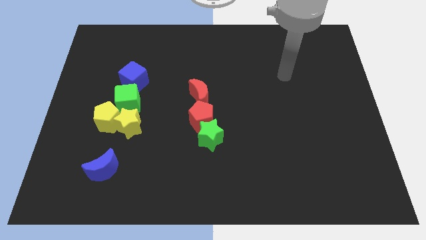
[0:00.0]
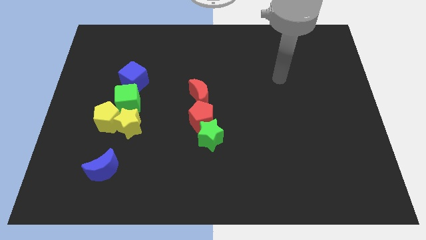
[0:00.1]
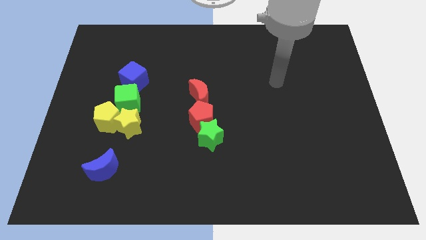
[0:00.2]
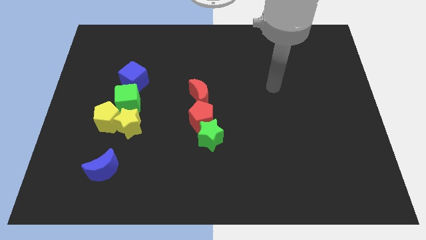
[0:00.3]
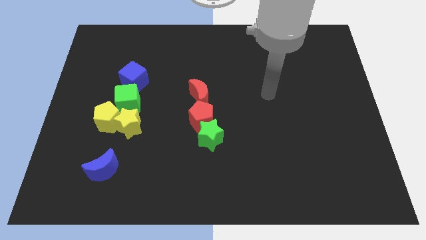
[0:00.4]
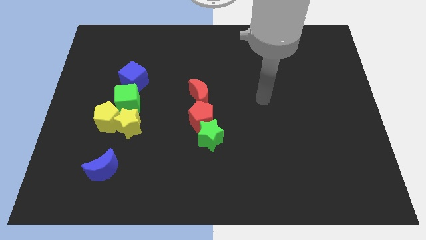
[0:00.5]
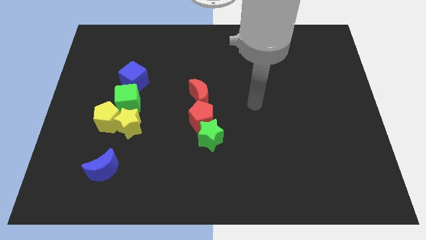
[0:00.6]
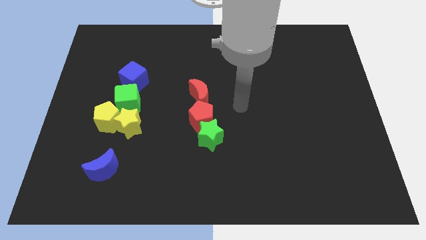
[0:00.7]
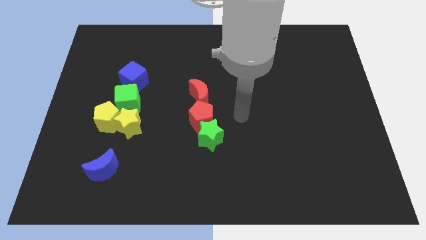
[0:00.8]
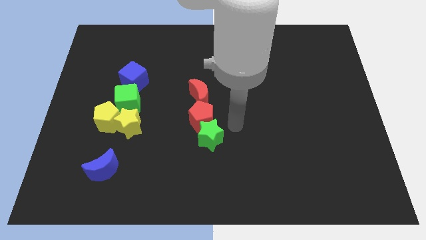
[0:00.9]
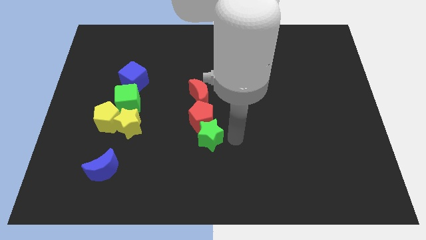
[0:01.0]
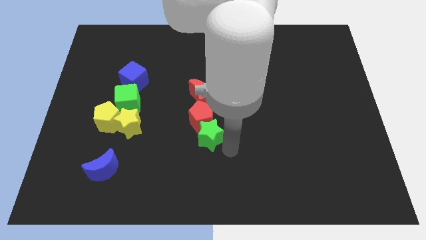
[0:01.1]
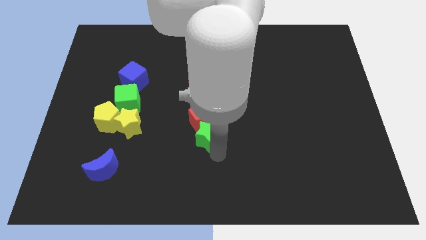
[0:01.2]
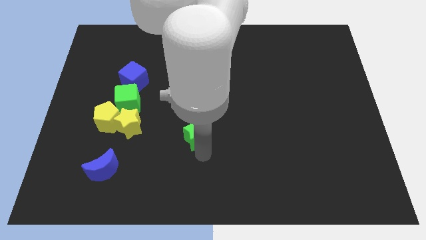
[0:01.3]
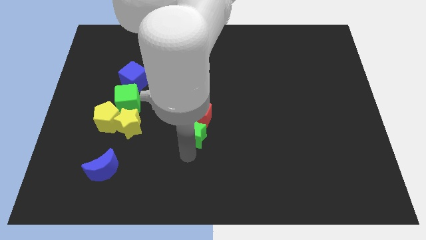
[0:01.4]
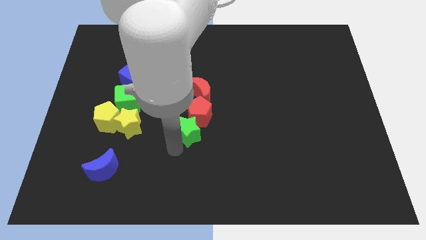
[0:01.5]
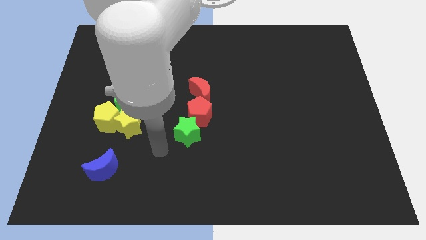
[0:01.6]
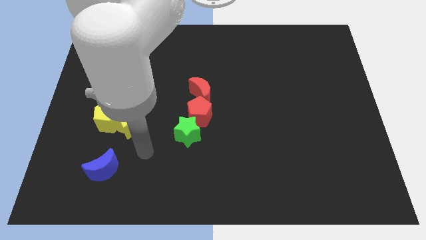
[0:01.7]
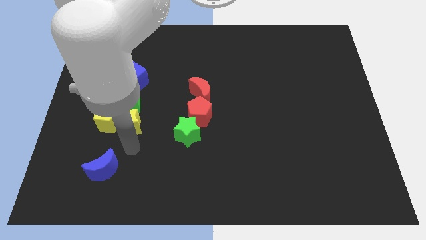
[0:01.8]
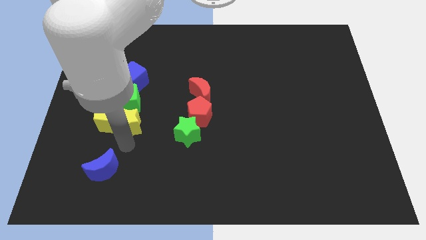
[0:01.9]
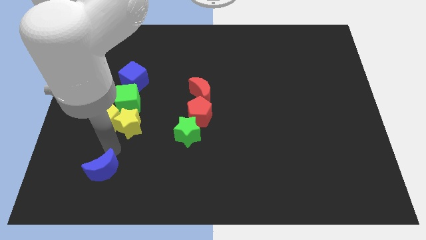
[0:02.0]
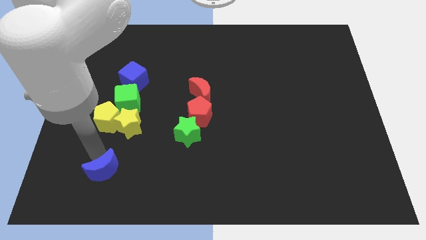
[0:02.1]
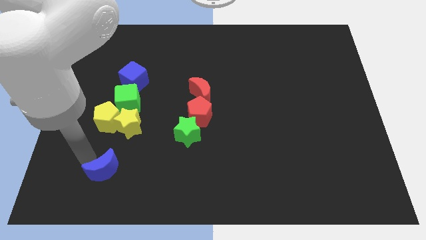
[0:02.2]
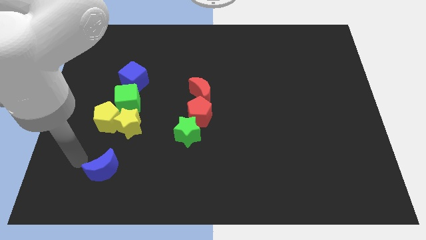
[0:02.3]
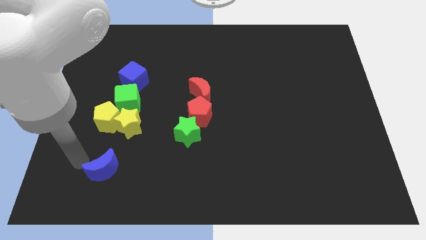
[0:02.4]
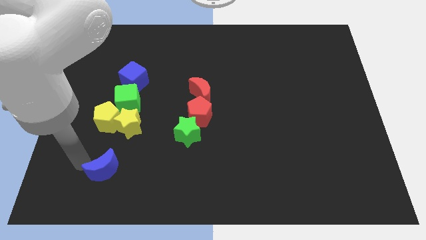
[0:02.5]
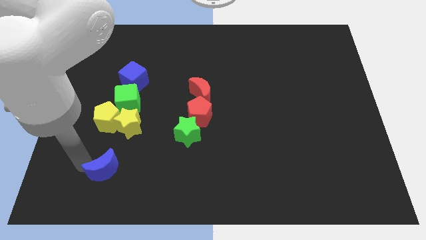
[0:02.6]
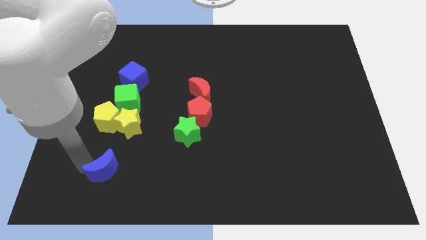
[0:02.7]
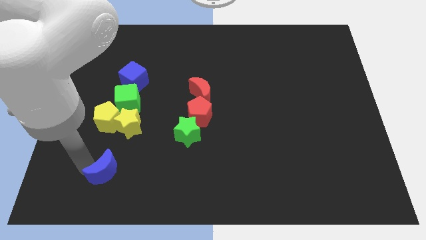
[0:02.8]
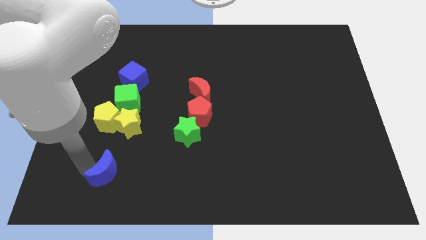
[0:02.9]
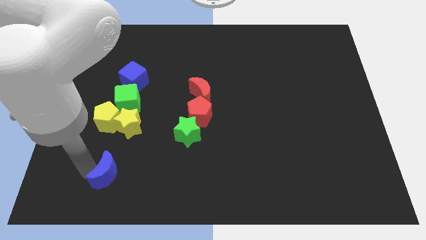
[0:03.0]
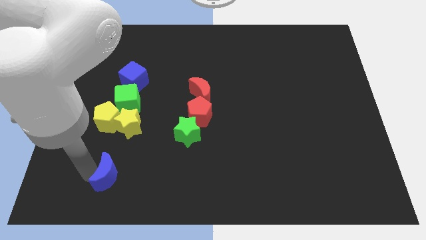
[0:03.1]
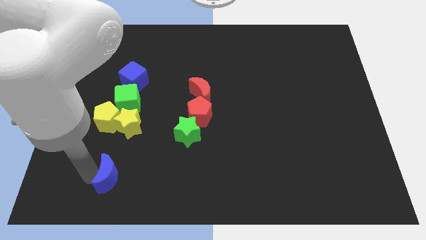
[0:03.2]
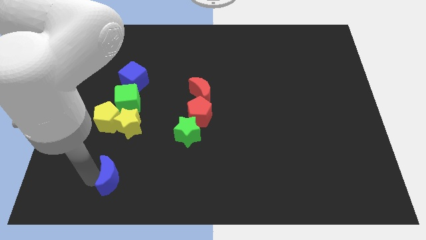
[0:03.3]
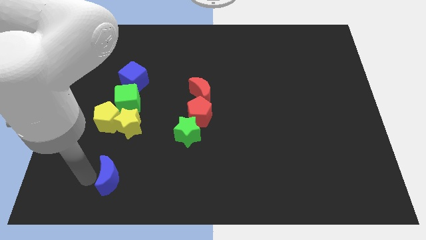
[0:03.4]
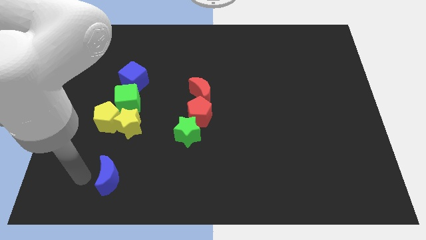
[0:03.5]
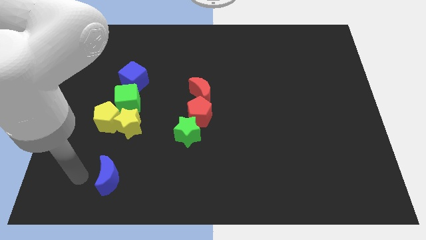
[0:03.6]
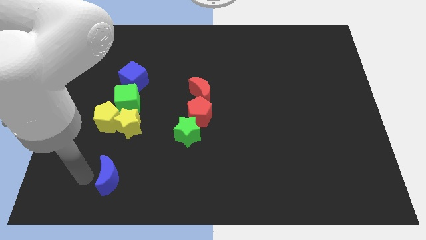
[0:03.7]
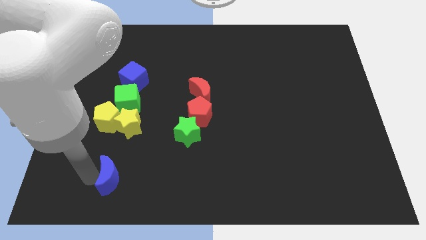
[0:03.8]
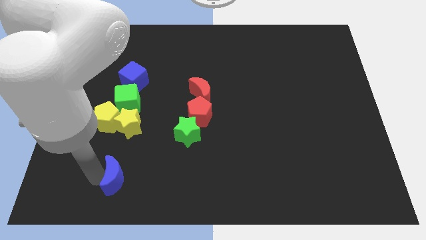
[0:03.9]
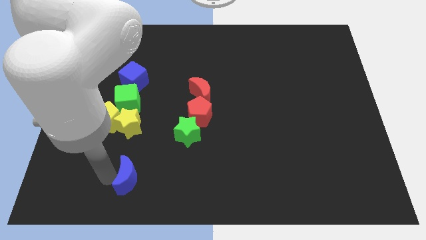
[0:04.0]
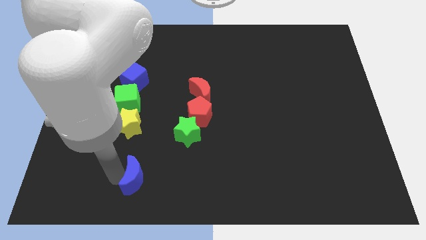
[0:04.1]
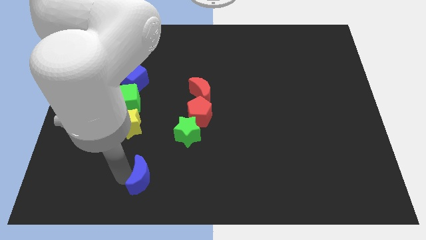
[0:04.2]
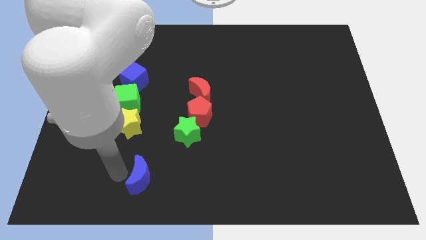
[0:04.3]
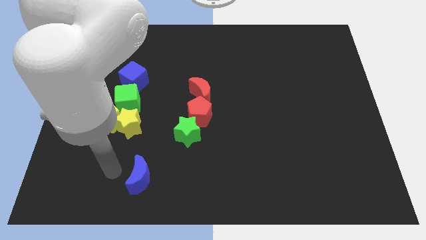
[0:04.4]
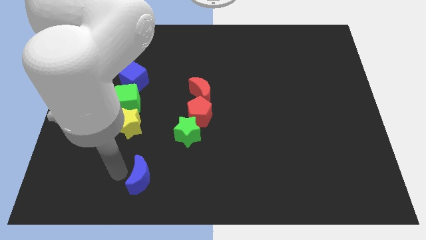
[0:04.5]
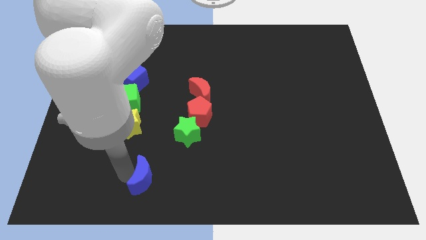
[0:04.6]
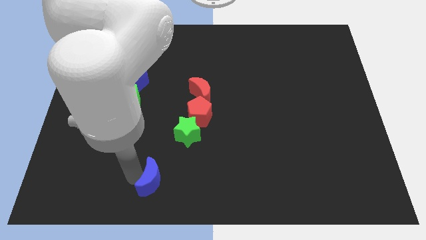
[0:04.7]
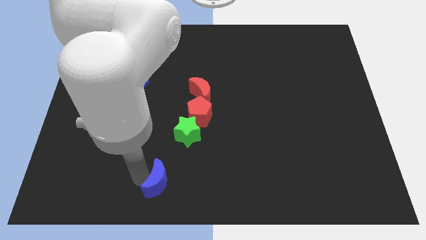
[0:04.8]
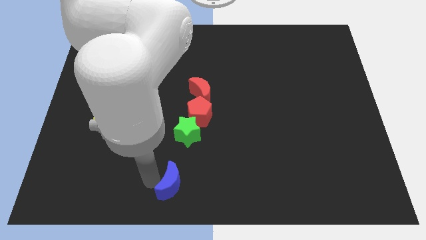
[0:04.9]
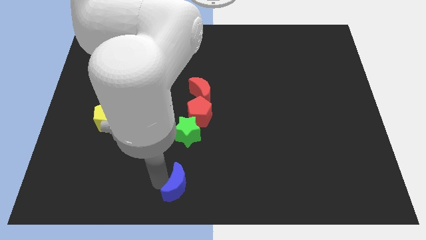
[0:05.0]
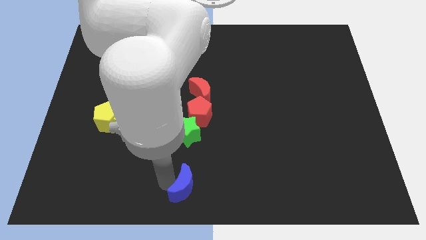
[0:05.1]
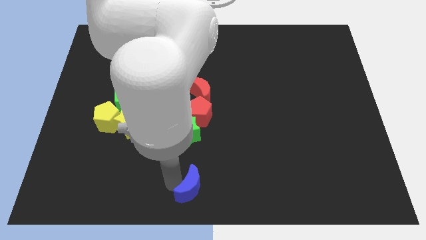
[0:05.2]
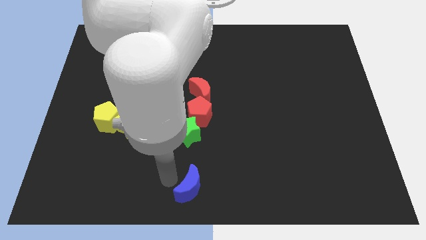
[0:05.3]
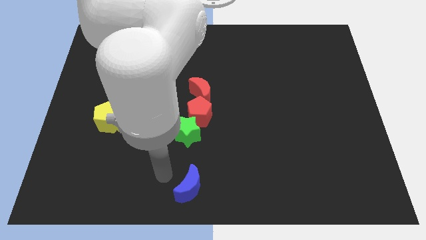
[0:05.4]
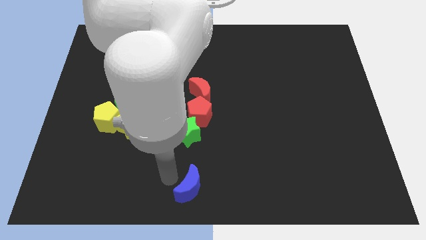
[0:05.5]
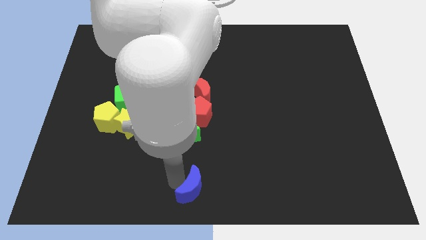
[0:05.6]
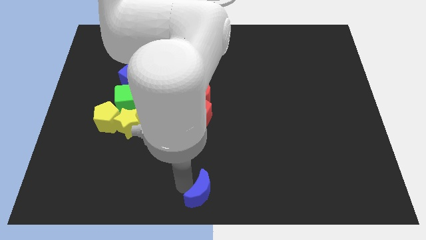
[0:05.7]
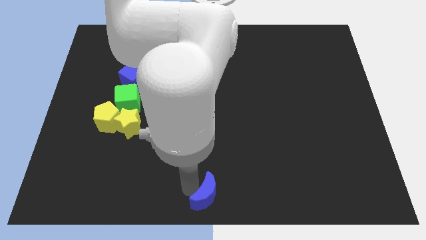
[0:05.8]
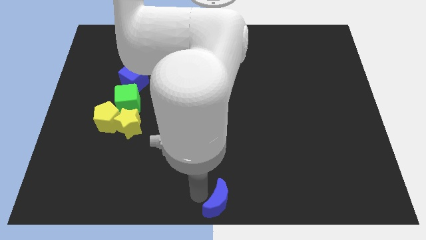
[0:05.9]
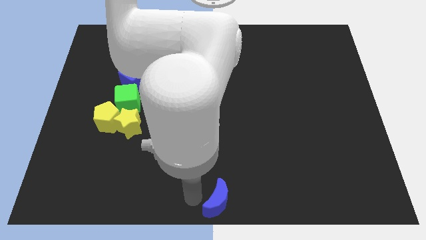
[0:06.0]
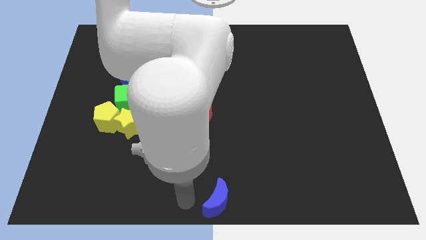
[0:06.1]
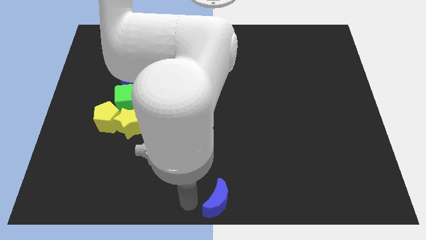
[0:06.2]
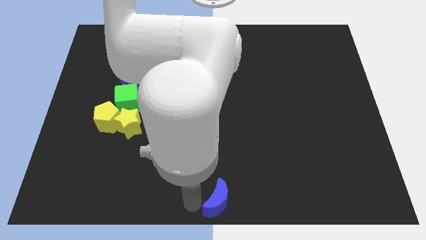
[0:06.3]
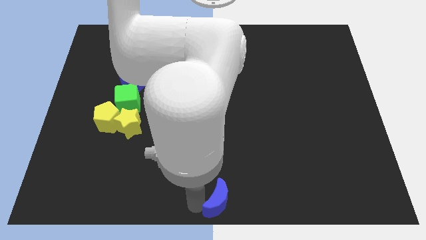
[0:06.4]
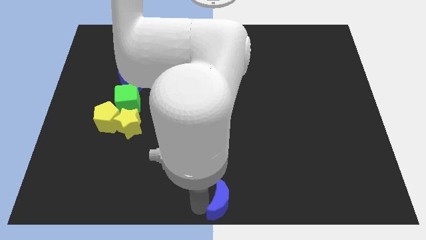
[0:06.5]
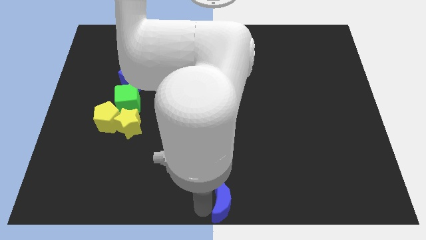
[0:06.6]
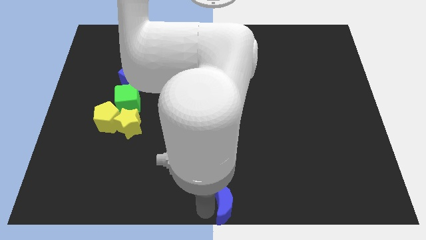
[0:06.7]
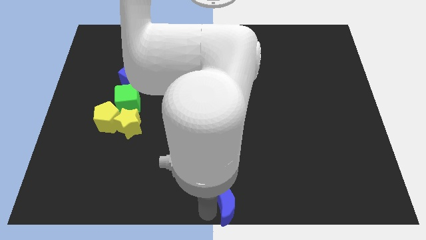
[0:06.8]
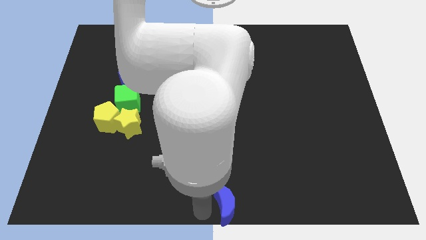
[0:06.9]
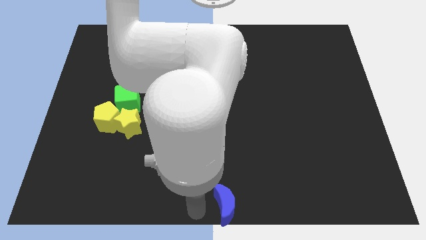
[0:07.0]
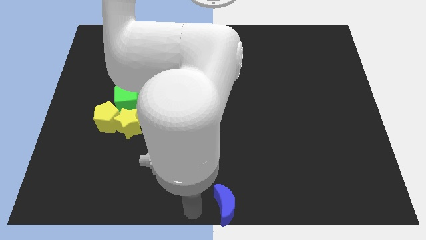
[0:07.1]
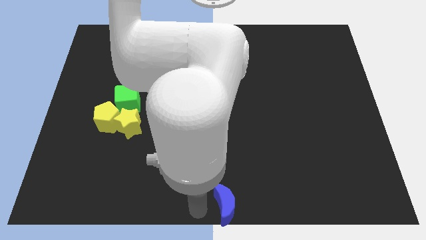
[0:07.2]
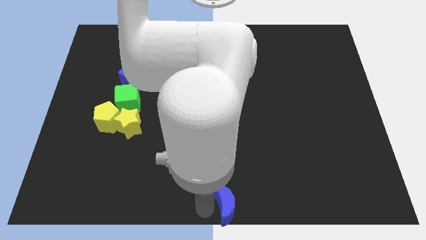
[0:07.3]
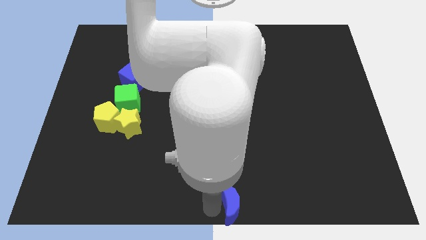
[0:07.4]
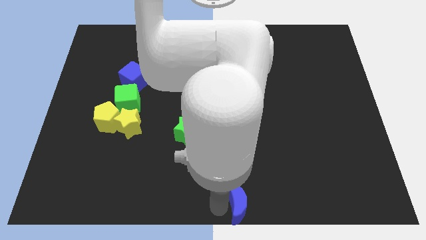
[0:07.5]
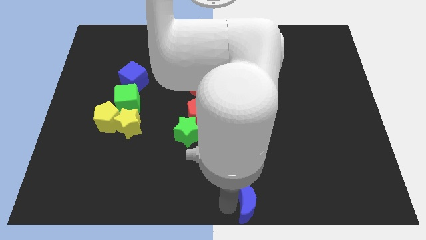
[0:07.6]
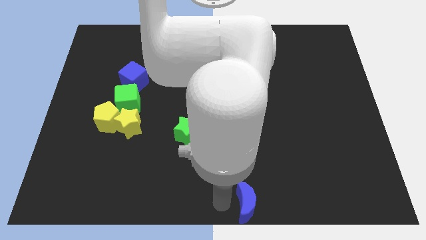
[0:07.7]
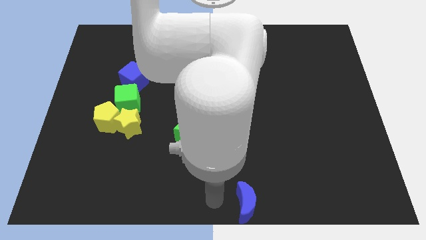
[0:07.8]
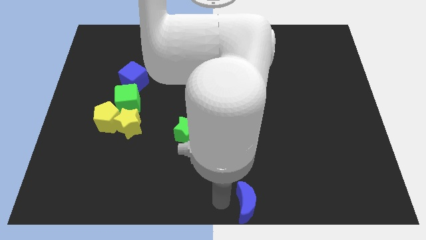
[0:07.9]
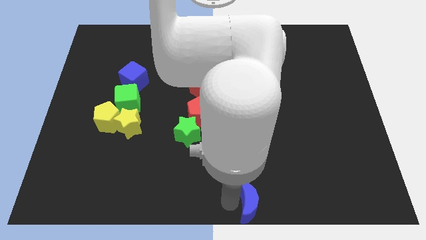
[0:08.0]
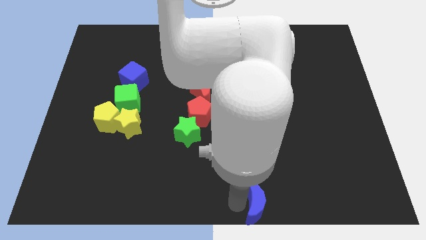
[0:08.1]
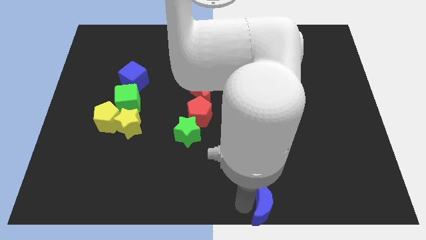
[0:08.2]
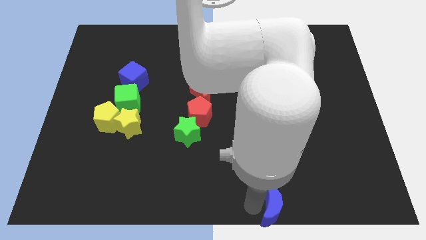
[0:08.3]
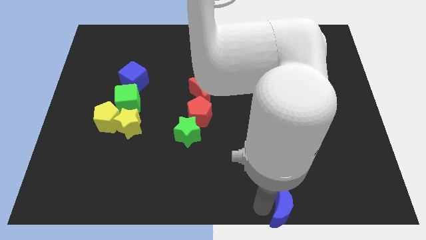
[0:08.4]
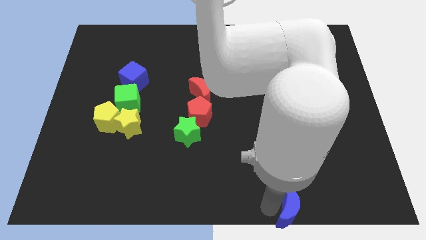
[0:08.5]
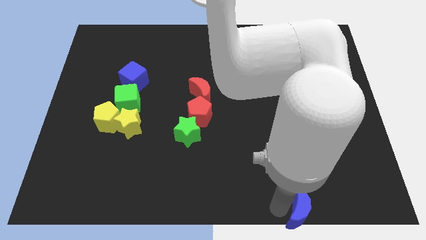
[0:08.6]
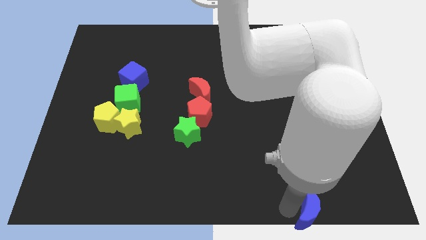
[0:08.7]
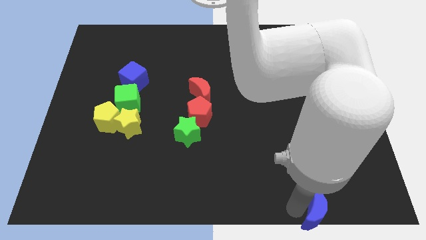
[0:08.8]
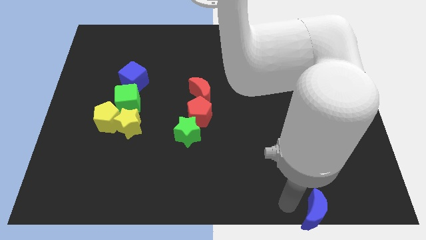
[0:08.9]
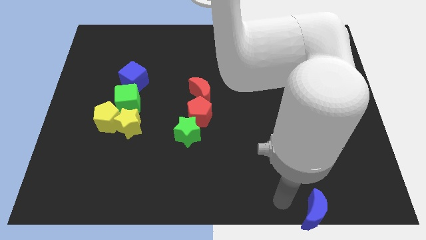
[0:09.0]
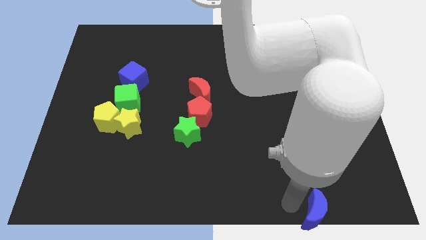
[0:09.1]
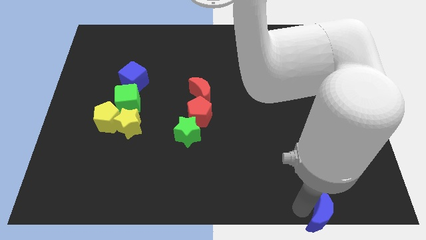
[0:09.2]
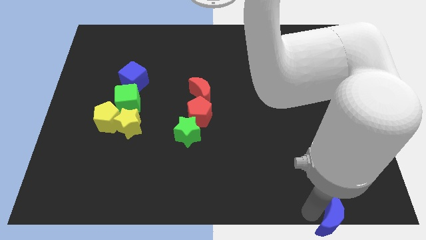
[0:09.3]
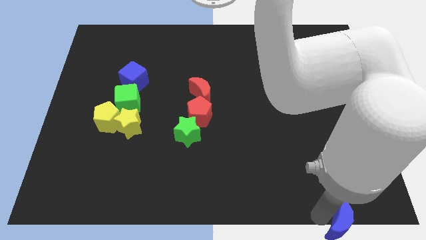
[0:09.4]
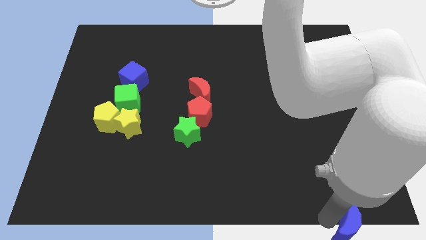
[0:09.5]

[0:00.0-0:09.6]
move the blue moon to the bottom right
